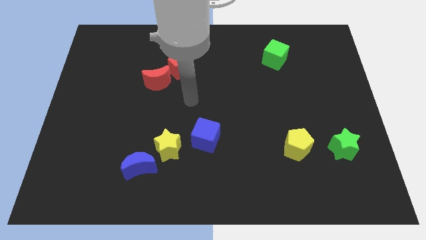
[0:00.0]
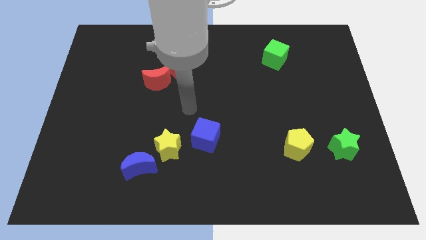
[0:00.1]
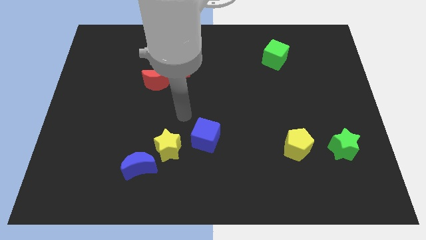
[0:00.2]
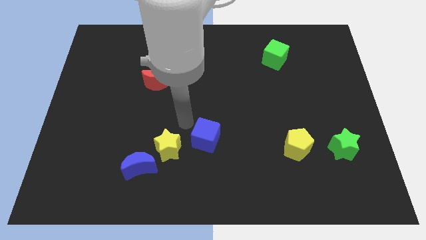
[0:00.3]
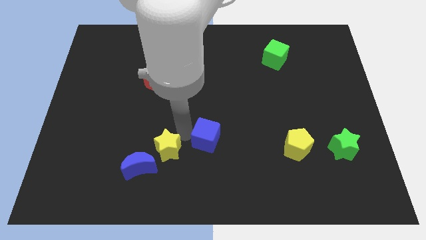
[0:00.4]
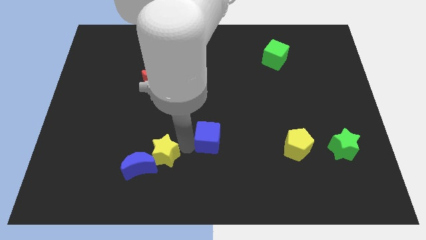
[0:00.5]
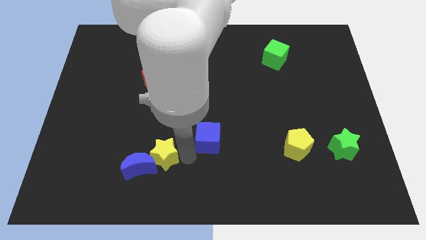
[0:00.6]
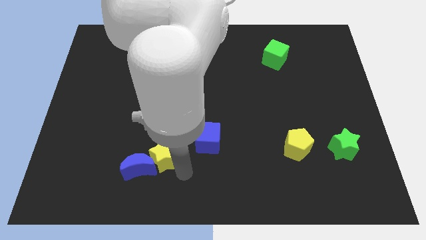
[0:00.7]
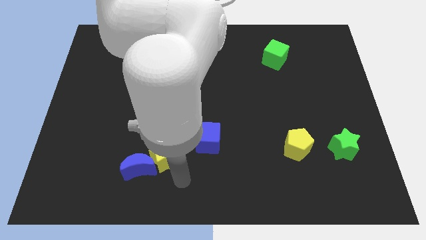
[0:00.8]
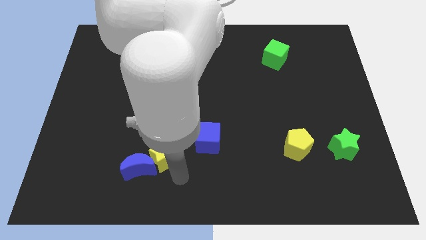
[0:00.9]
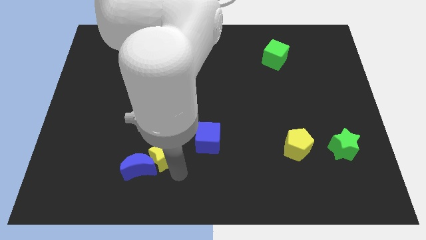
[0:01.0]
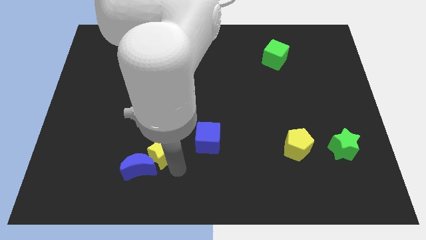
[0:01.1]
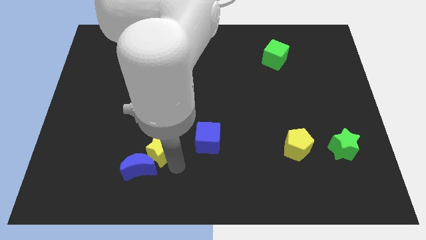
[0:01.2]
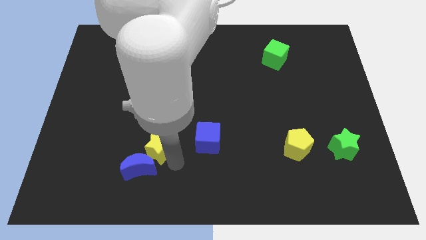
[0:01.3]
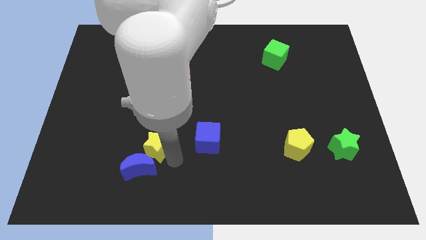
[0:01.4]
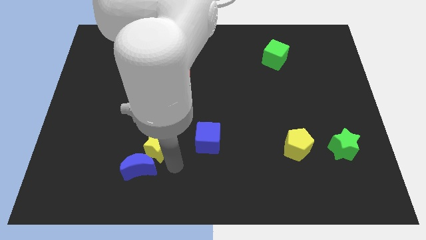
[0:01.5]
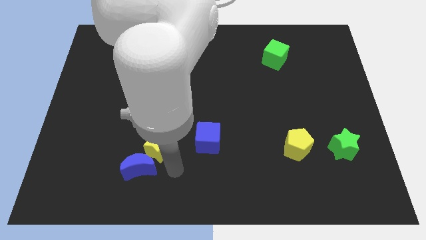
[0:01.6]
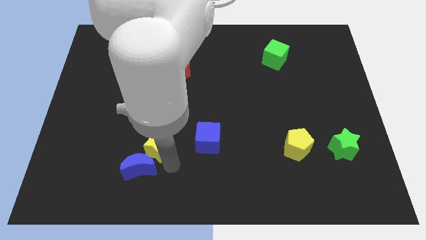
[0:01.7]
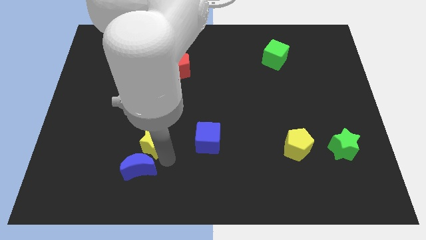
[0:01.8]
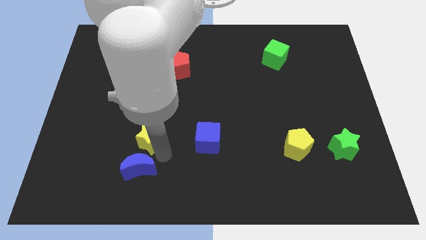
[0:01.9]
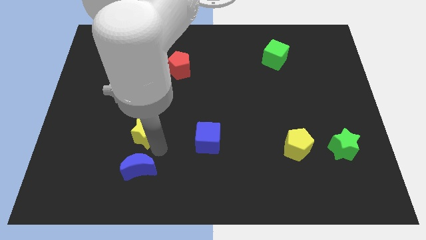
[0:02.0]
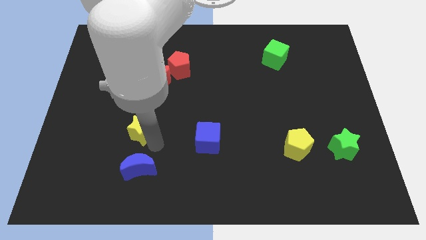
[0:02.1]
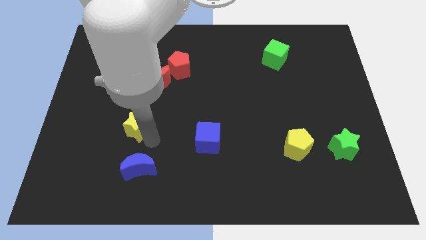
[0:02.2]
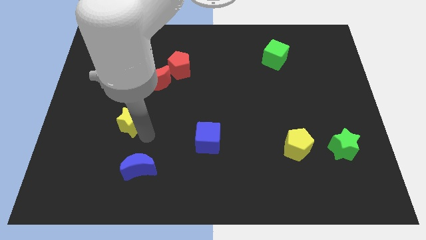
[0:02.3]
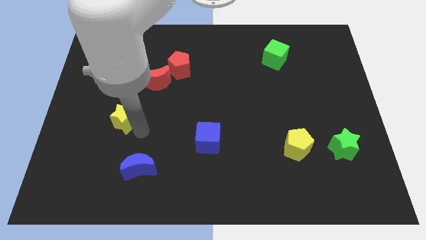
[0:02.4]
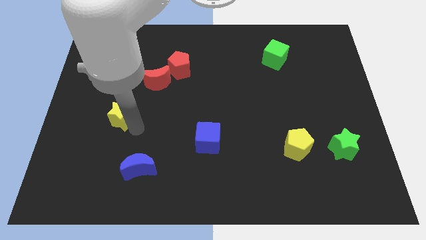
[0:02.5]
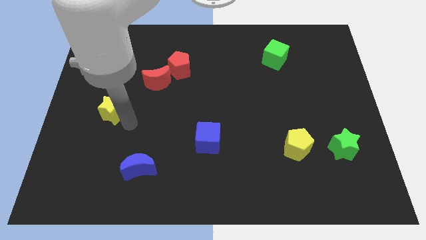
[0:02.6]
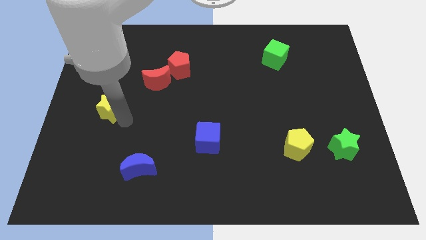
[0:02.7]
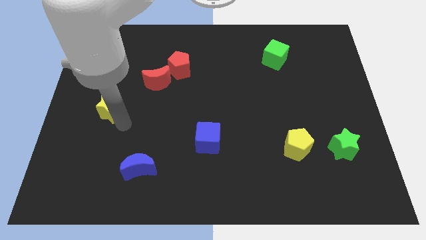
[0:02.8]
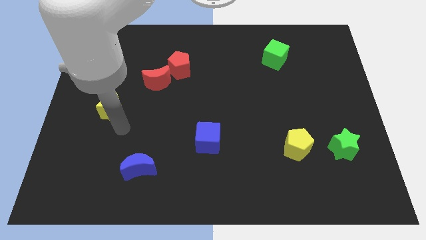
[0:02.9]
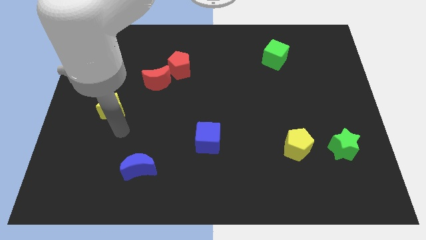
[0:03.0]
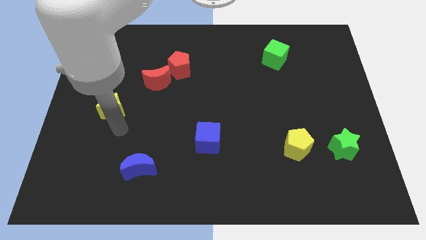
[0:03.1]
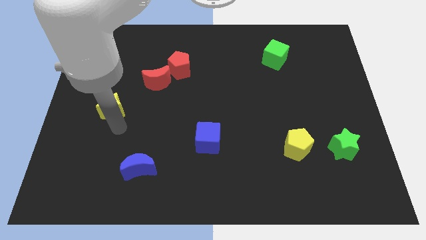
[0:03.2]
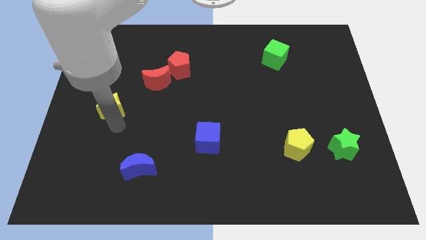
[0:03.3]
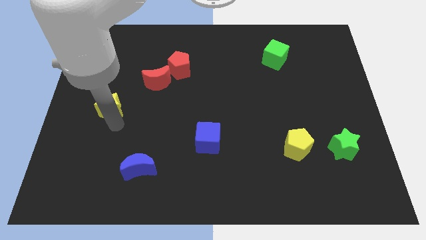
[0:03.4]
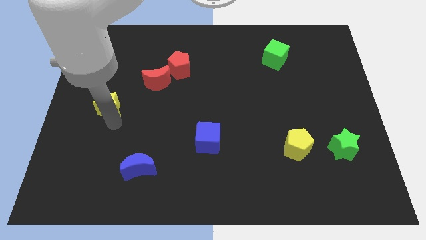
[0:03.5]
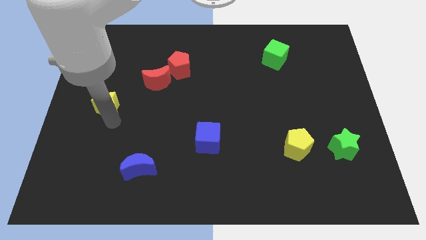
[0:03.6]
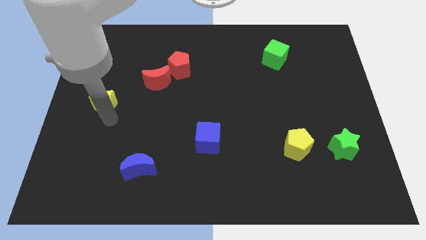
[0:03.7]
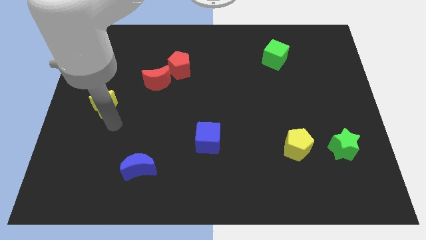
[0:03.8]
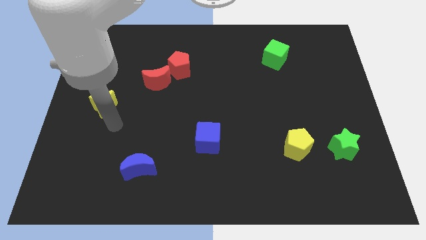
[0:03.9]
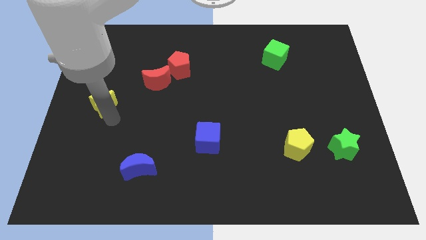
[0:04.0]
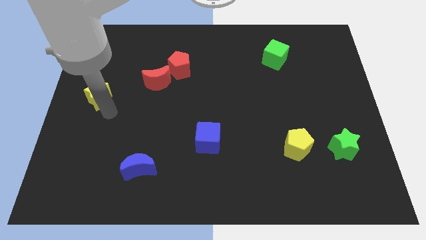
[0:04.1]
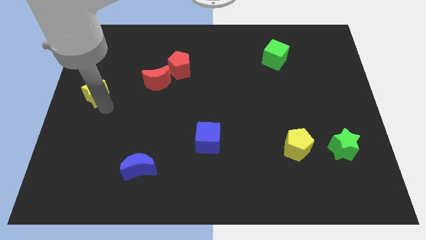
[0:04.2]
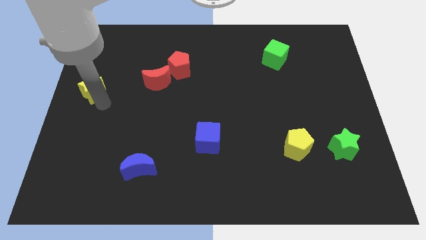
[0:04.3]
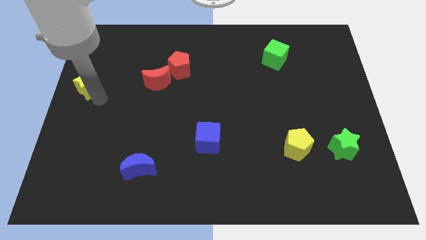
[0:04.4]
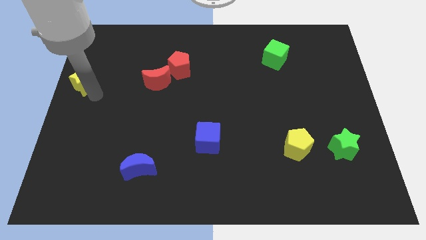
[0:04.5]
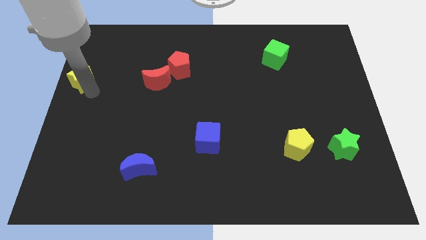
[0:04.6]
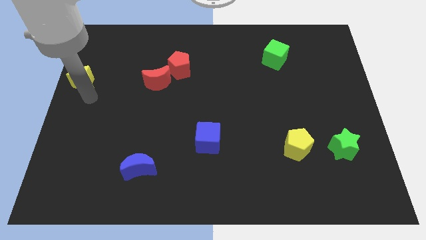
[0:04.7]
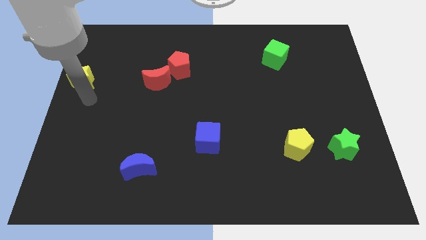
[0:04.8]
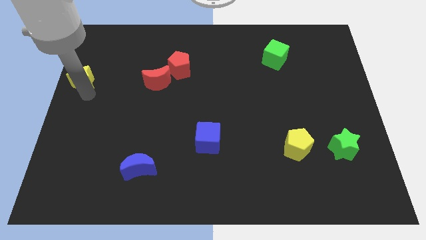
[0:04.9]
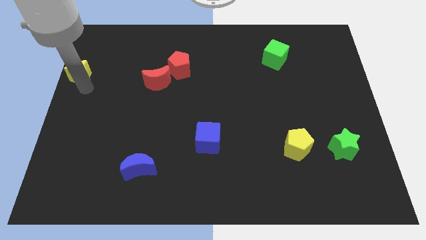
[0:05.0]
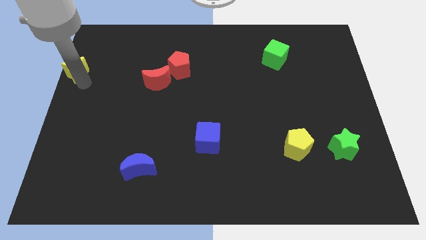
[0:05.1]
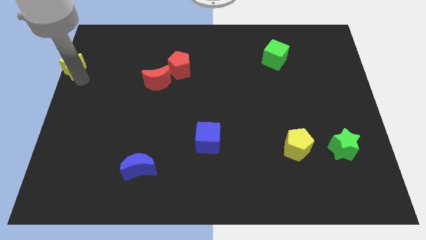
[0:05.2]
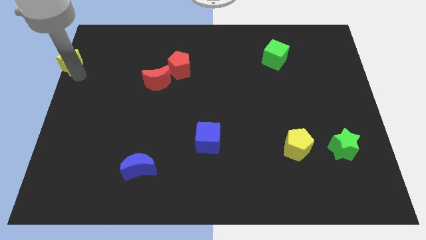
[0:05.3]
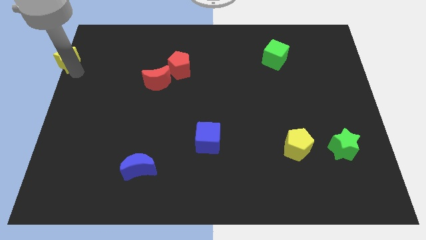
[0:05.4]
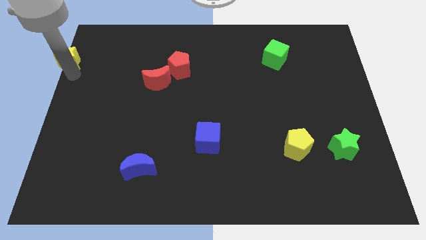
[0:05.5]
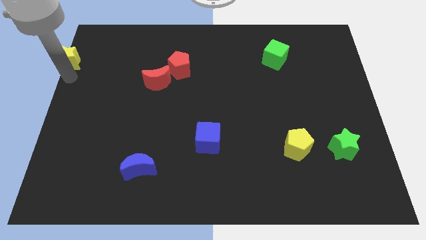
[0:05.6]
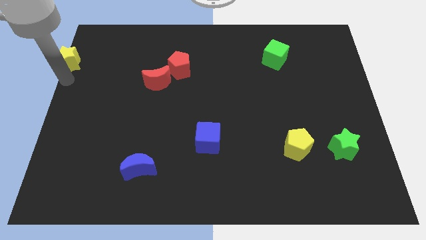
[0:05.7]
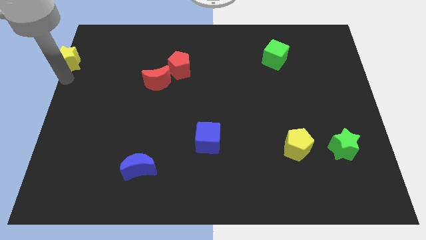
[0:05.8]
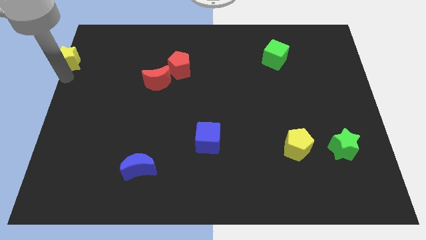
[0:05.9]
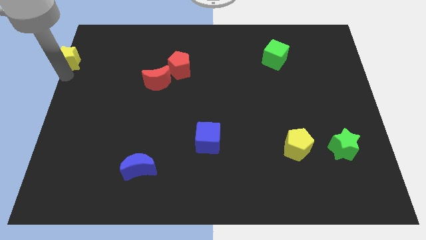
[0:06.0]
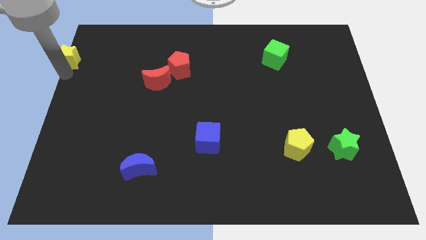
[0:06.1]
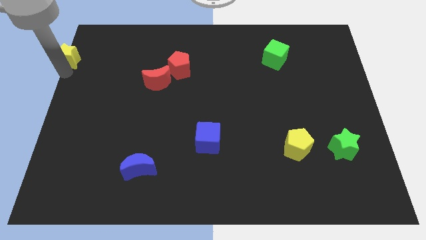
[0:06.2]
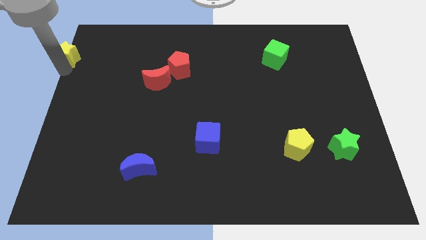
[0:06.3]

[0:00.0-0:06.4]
put the yellow star to the upper left corner

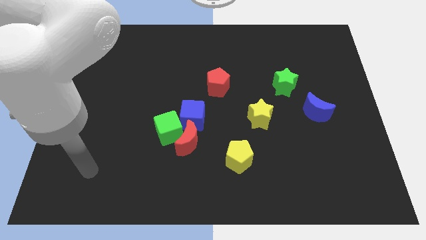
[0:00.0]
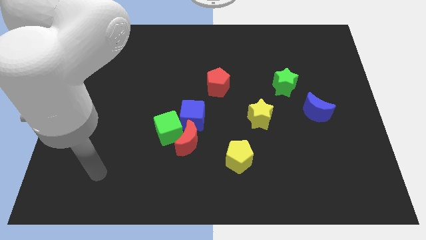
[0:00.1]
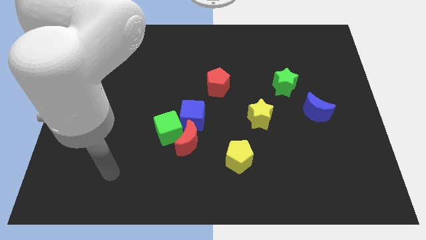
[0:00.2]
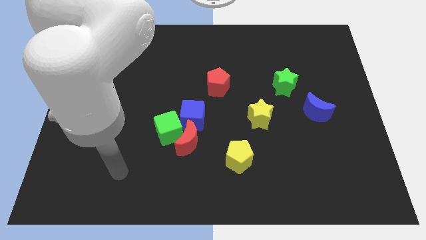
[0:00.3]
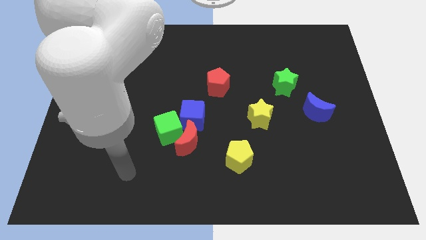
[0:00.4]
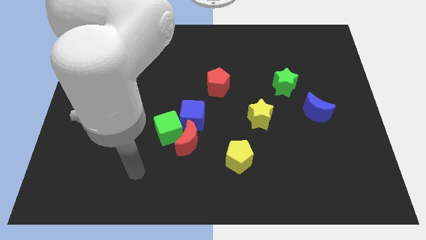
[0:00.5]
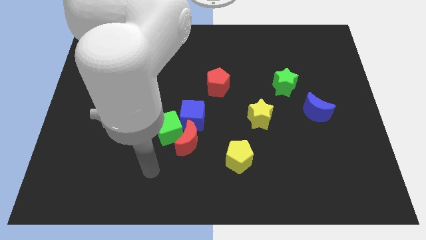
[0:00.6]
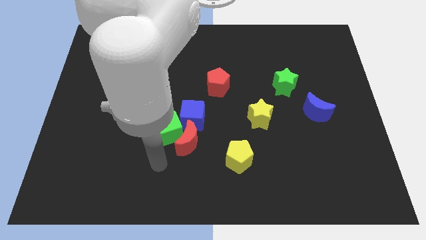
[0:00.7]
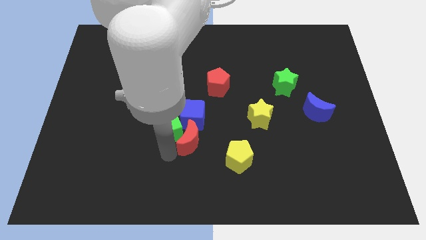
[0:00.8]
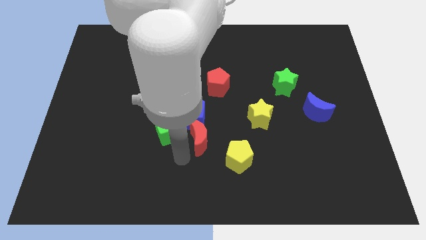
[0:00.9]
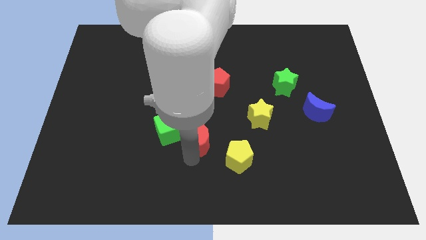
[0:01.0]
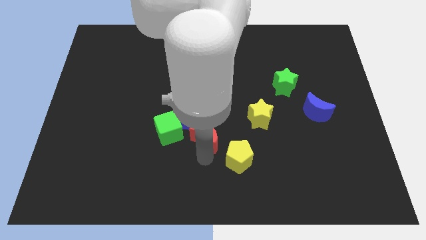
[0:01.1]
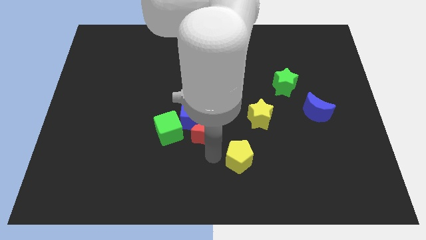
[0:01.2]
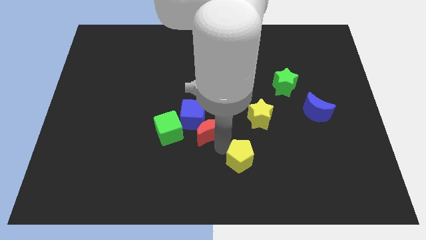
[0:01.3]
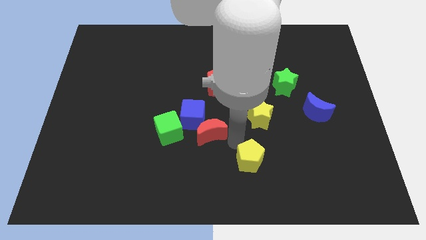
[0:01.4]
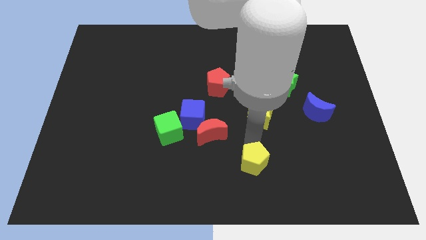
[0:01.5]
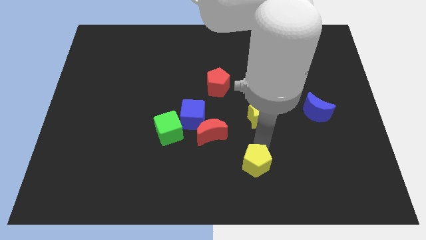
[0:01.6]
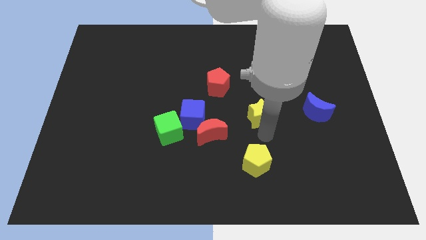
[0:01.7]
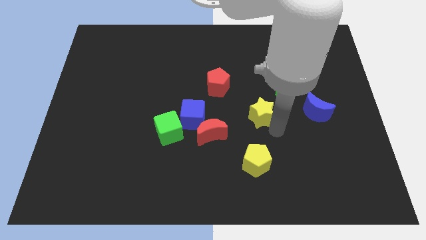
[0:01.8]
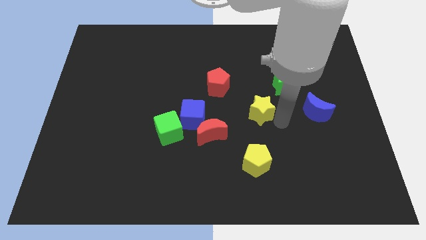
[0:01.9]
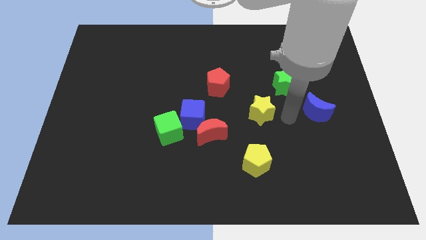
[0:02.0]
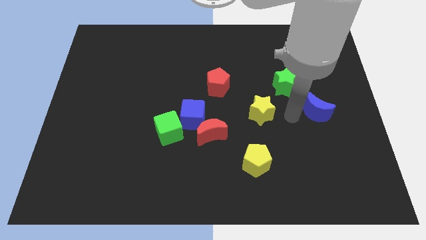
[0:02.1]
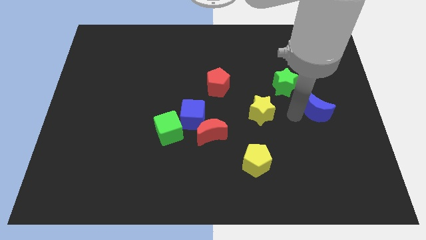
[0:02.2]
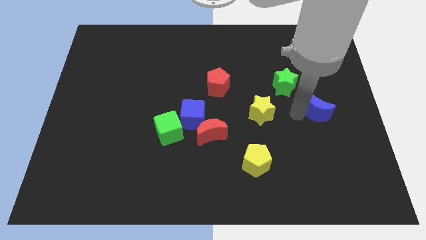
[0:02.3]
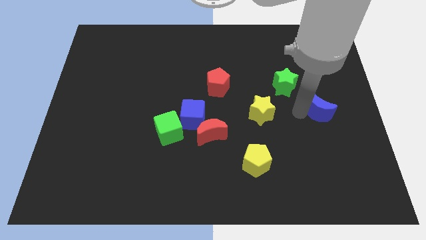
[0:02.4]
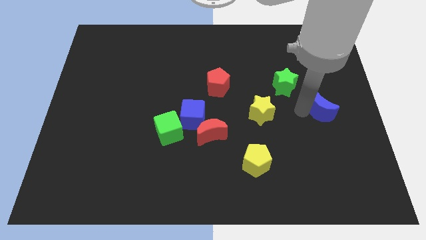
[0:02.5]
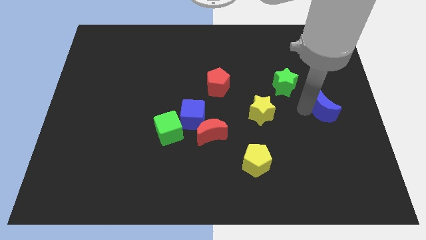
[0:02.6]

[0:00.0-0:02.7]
push the blue moon to the center right
